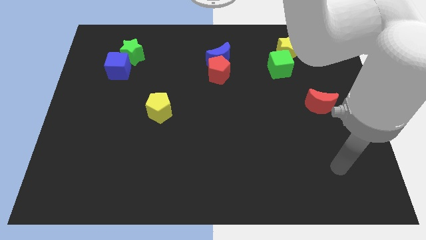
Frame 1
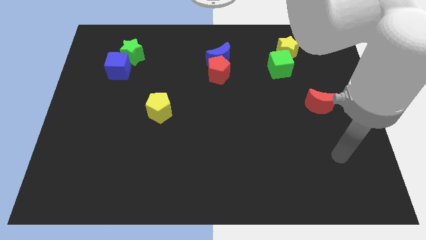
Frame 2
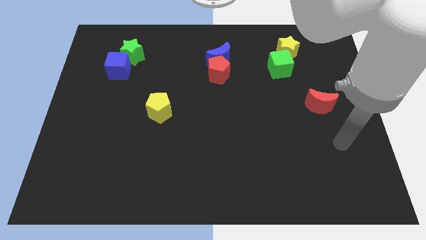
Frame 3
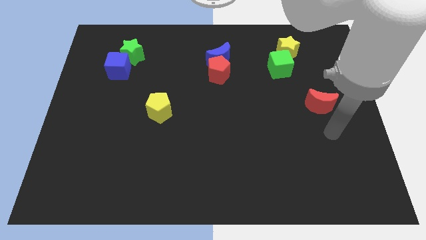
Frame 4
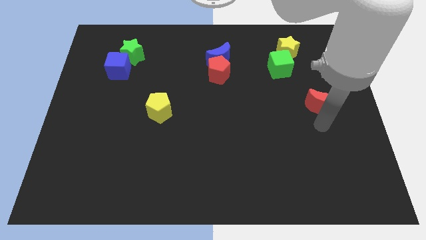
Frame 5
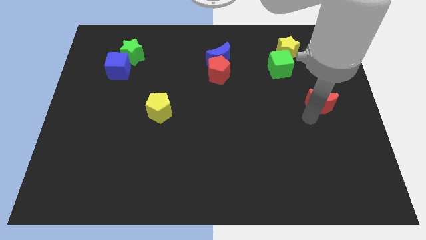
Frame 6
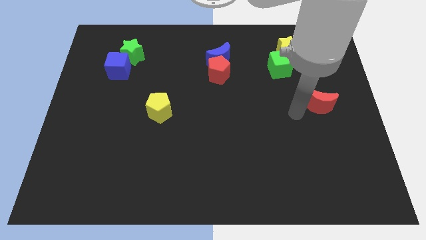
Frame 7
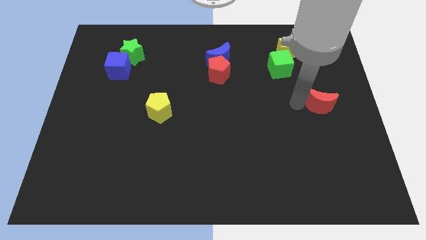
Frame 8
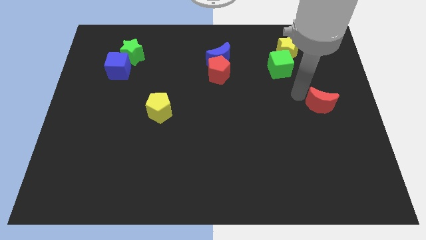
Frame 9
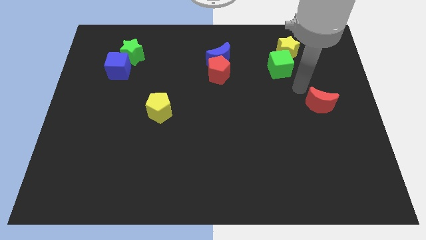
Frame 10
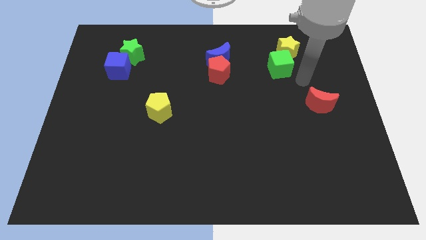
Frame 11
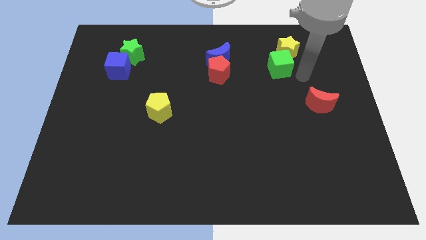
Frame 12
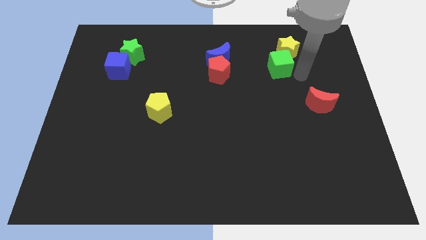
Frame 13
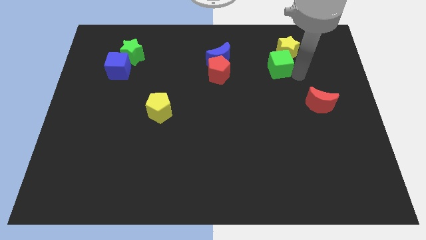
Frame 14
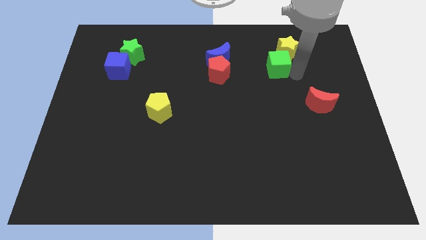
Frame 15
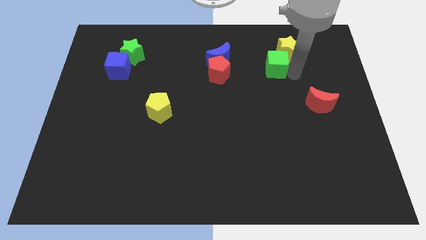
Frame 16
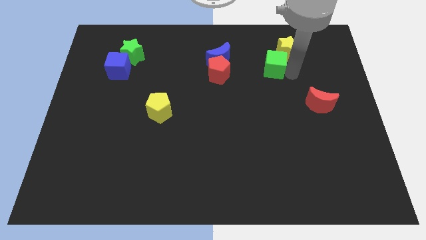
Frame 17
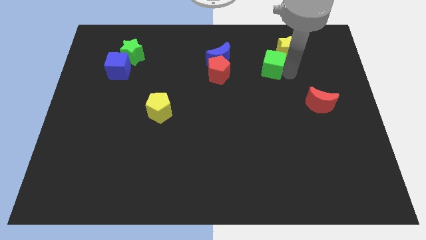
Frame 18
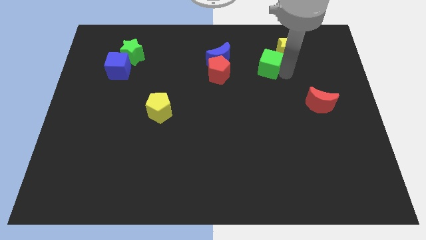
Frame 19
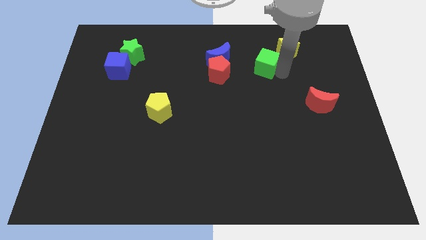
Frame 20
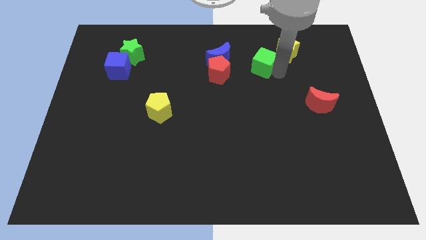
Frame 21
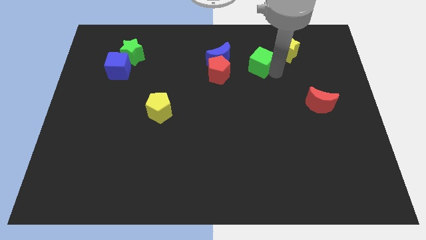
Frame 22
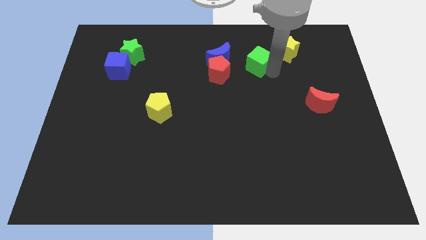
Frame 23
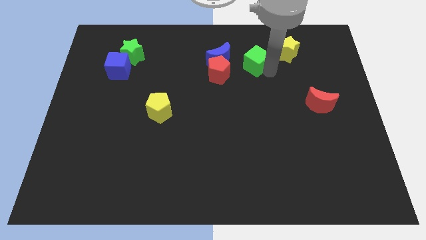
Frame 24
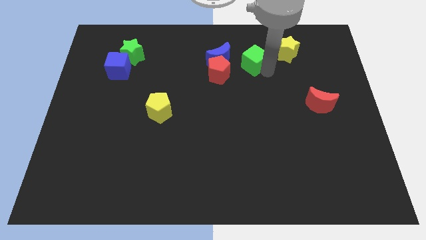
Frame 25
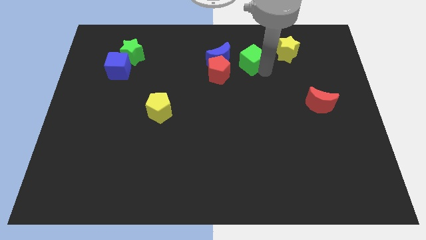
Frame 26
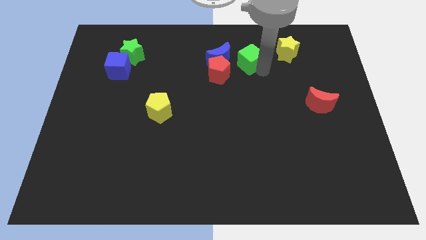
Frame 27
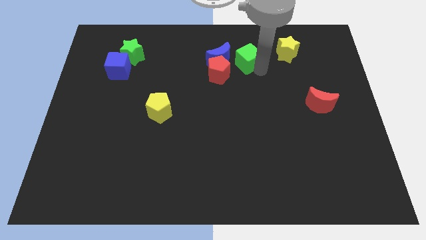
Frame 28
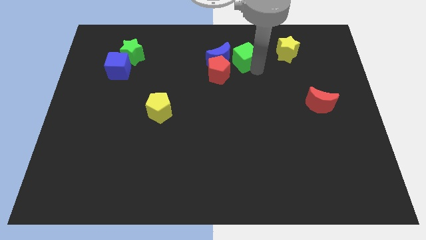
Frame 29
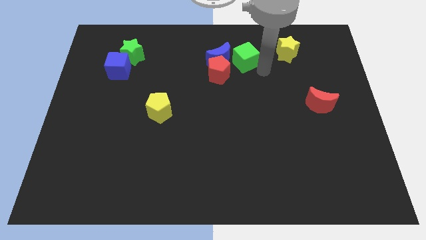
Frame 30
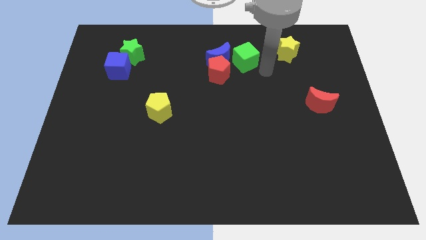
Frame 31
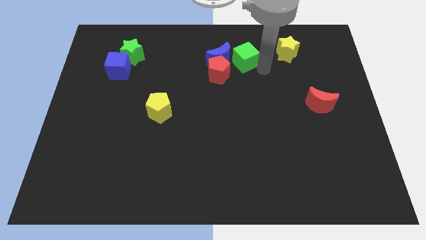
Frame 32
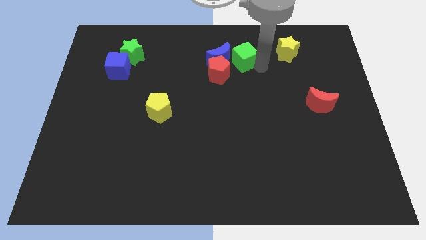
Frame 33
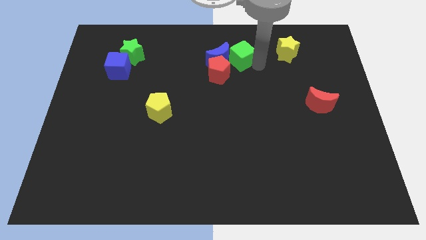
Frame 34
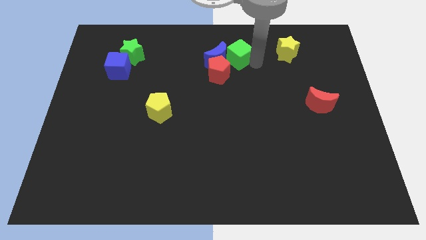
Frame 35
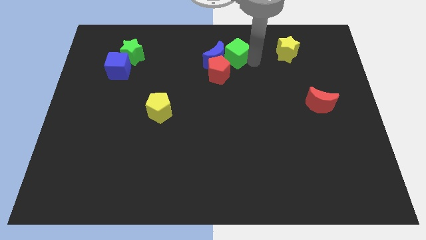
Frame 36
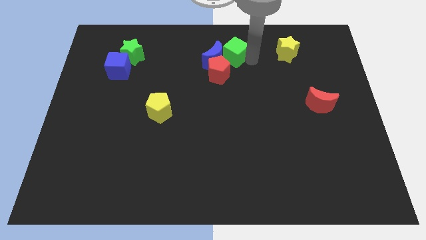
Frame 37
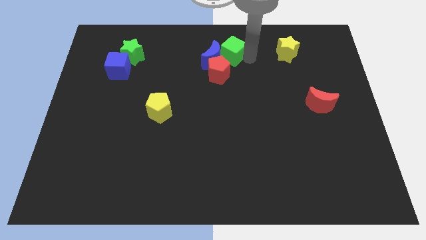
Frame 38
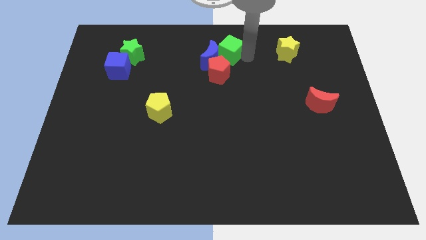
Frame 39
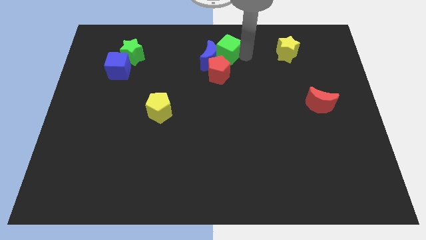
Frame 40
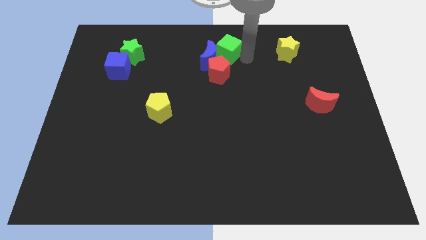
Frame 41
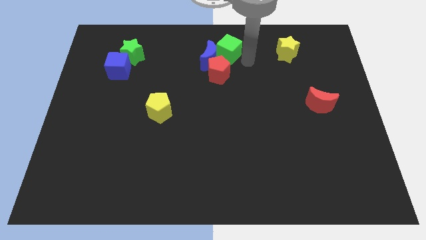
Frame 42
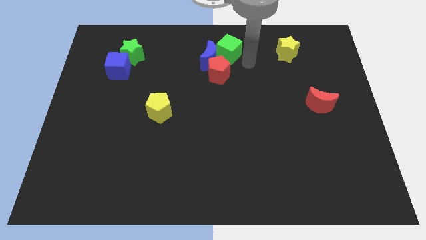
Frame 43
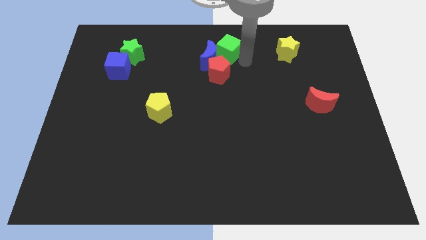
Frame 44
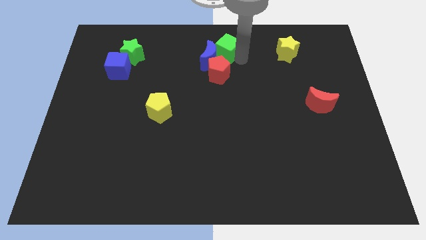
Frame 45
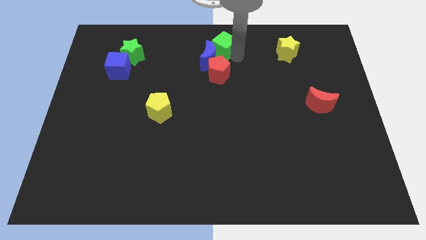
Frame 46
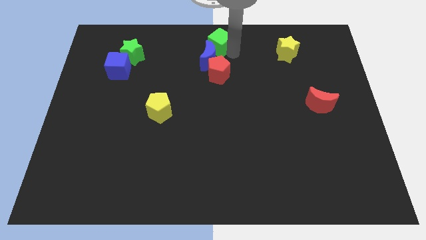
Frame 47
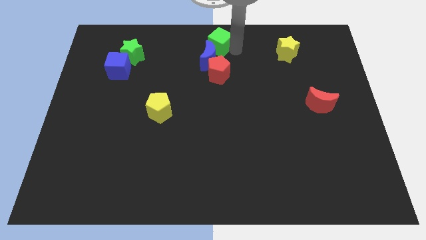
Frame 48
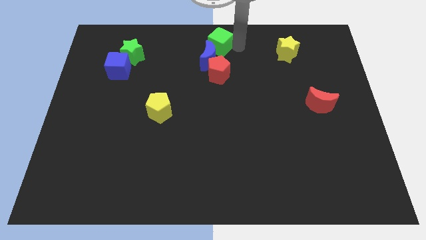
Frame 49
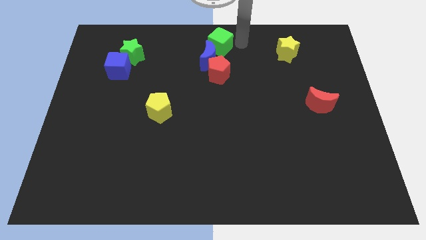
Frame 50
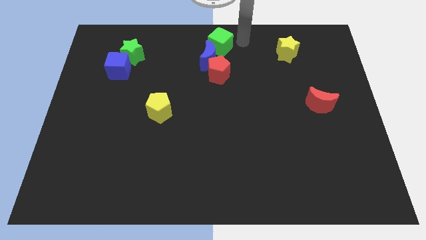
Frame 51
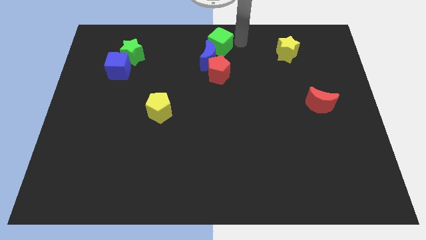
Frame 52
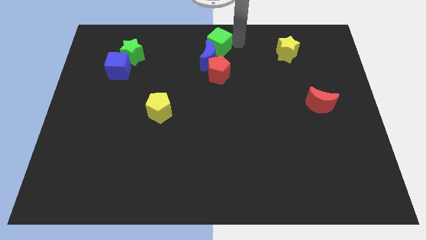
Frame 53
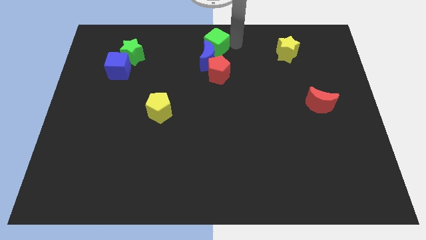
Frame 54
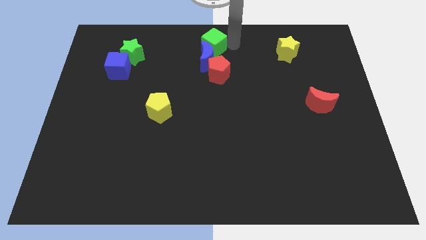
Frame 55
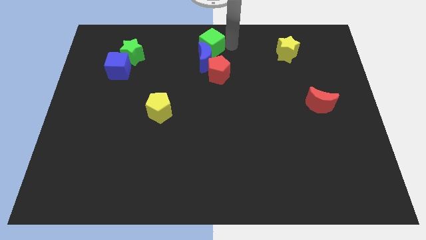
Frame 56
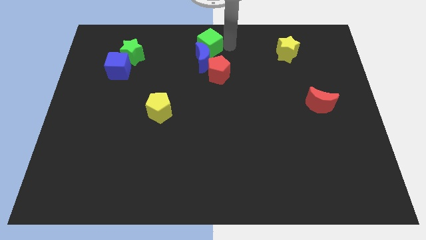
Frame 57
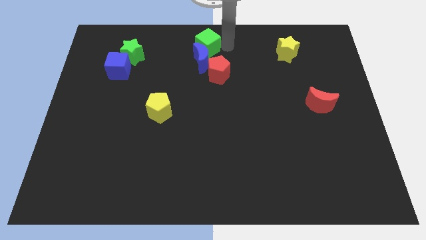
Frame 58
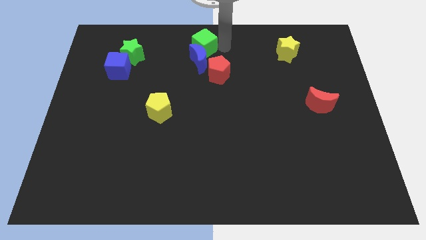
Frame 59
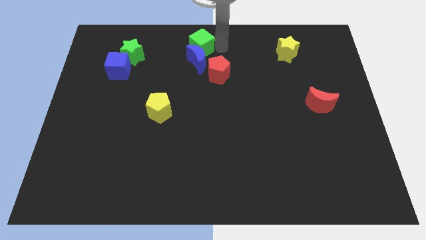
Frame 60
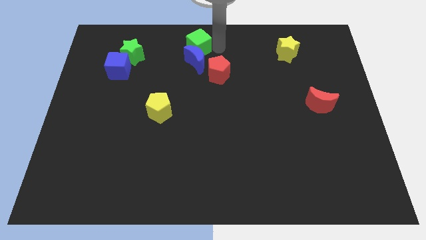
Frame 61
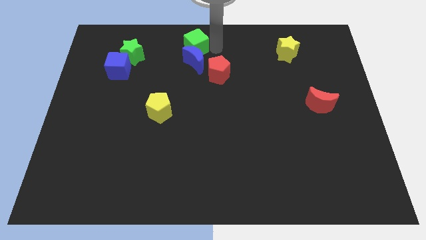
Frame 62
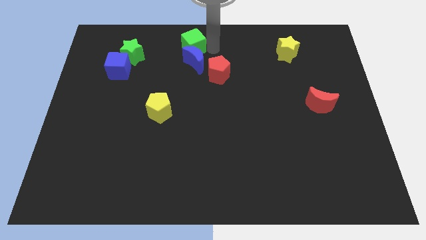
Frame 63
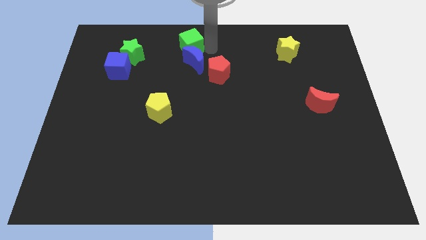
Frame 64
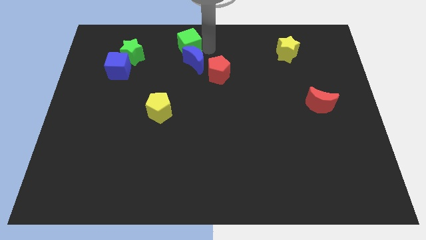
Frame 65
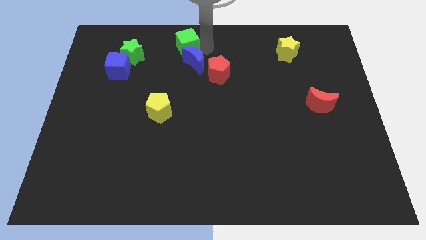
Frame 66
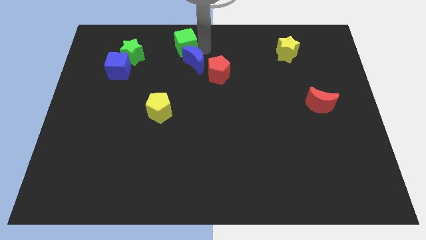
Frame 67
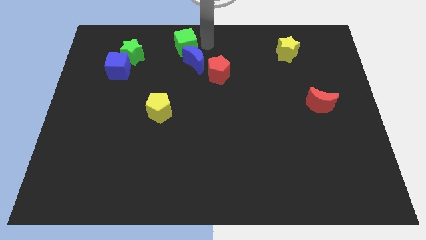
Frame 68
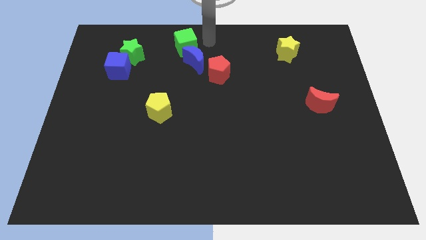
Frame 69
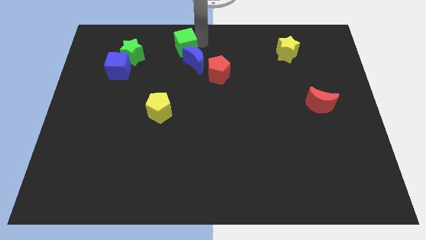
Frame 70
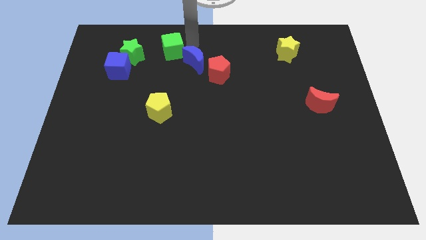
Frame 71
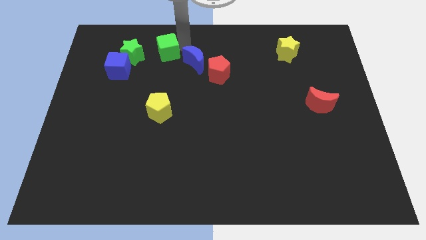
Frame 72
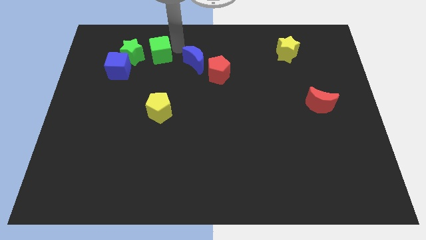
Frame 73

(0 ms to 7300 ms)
slide the green cube to the top right of the blue cube

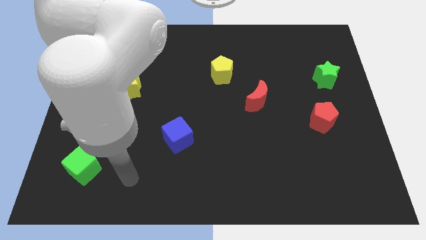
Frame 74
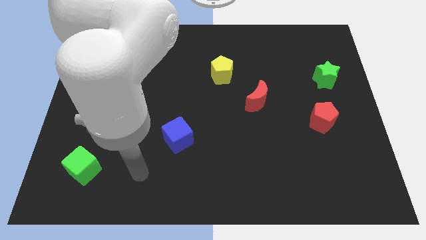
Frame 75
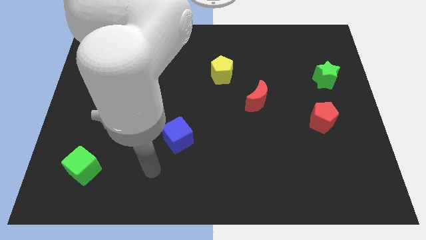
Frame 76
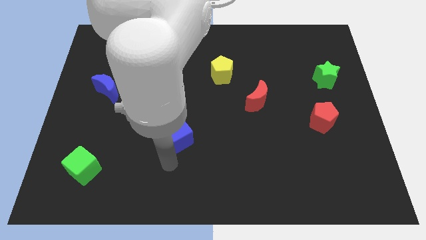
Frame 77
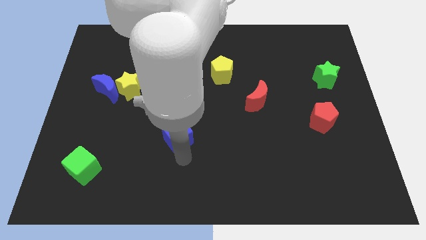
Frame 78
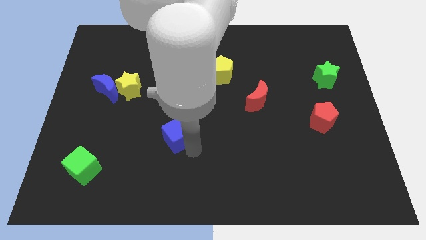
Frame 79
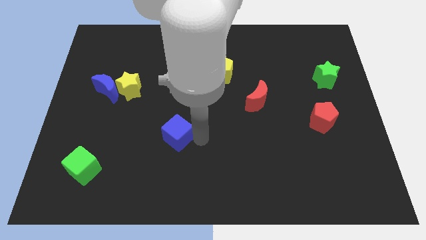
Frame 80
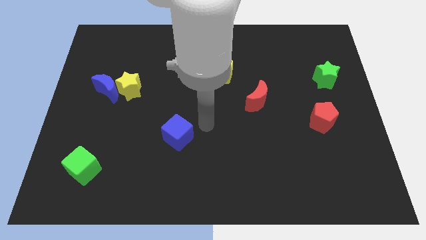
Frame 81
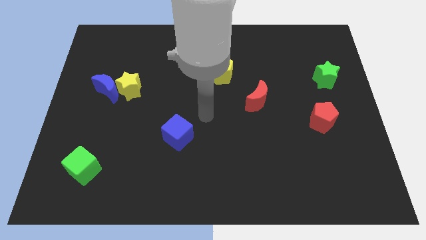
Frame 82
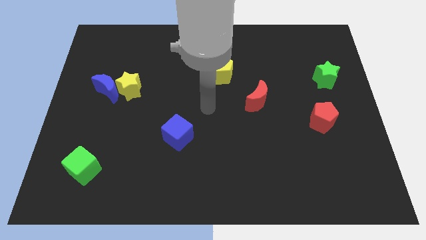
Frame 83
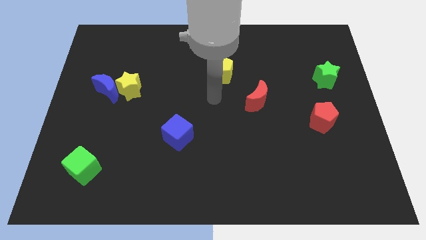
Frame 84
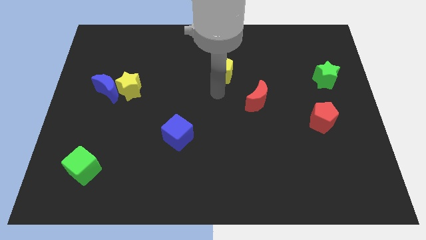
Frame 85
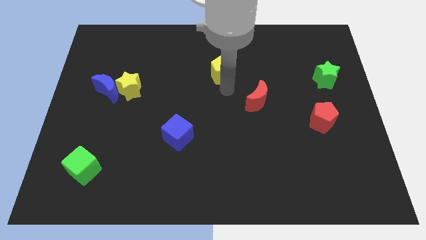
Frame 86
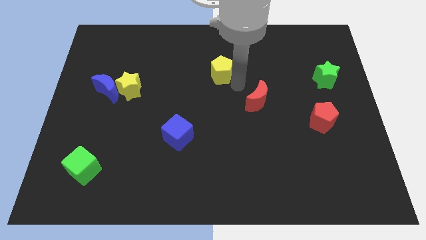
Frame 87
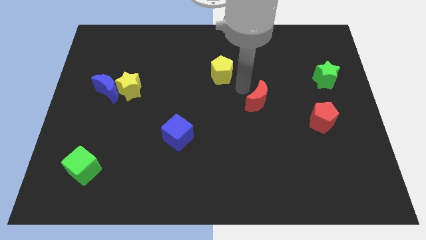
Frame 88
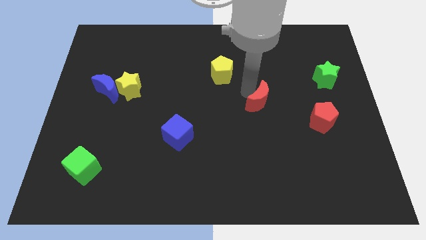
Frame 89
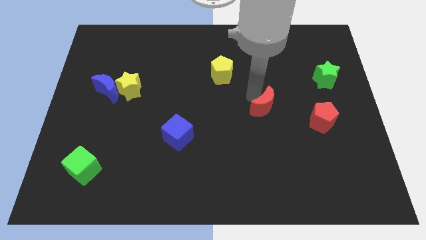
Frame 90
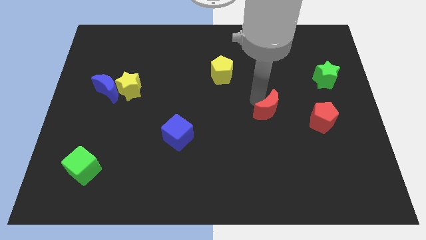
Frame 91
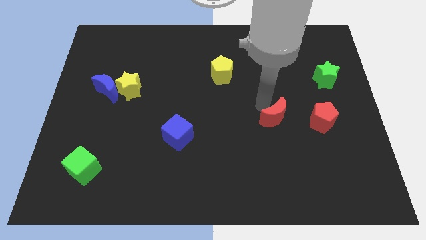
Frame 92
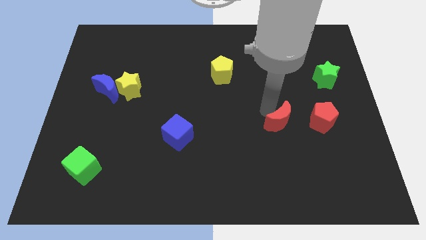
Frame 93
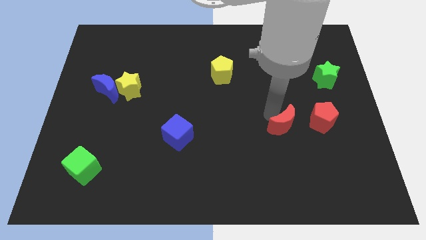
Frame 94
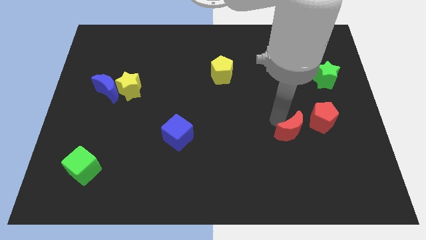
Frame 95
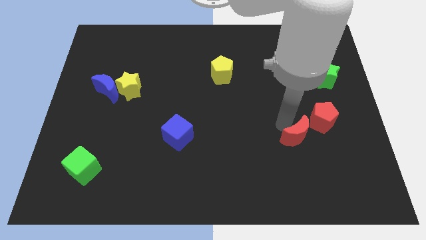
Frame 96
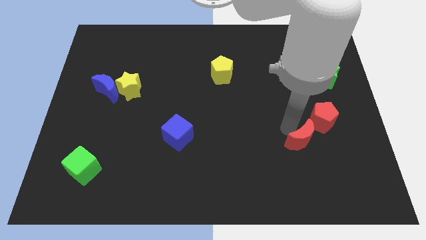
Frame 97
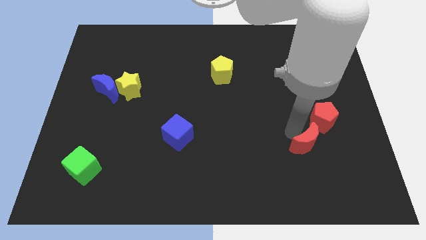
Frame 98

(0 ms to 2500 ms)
push the red moon to the bottom side of the red pentagon
